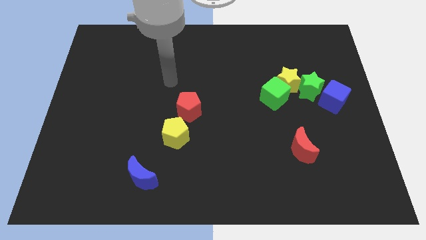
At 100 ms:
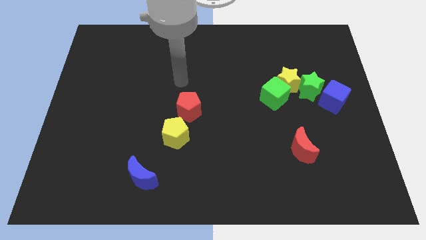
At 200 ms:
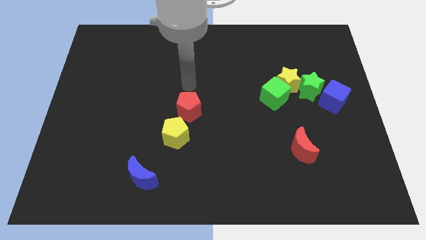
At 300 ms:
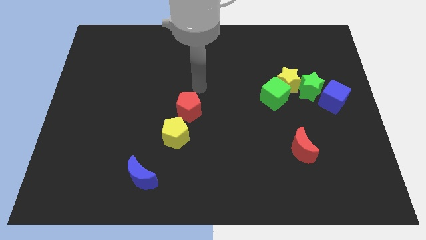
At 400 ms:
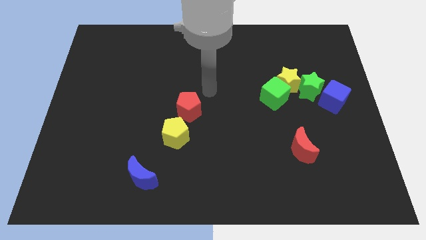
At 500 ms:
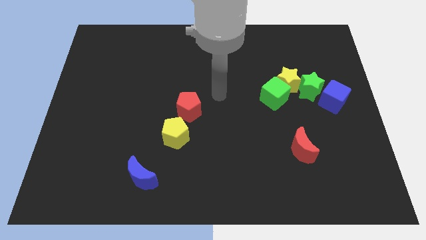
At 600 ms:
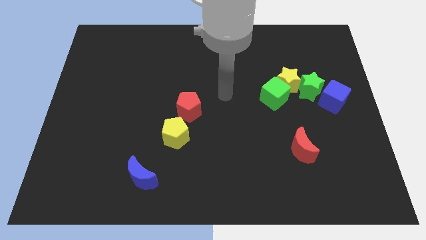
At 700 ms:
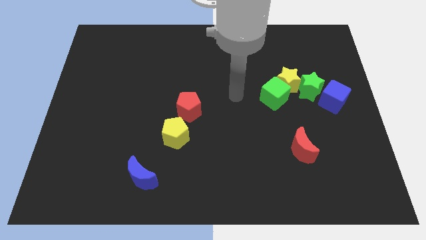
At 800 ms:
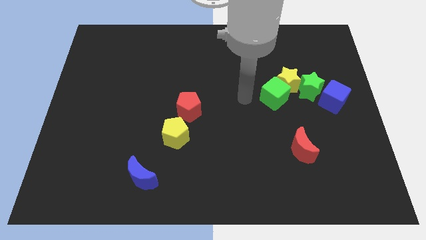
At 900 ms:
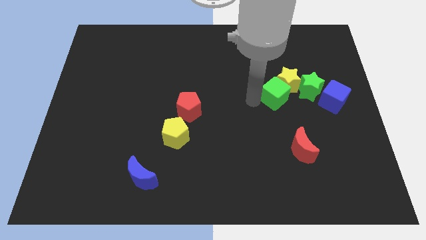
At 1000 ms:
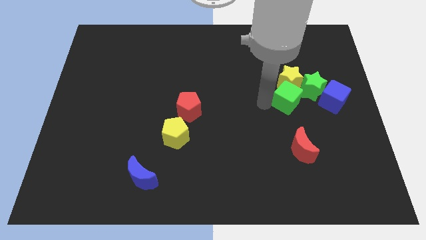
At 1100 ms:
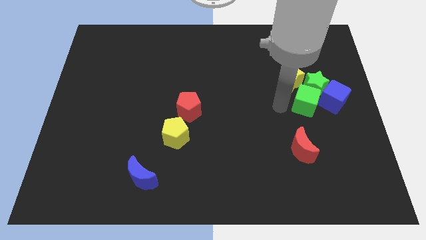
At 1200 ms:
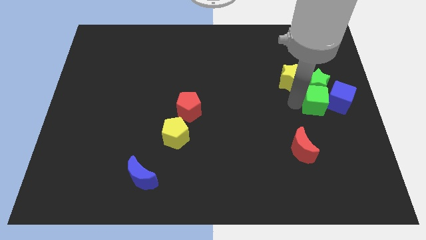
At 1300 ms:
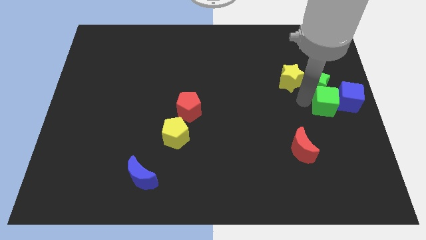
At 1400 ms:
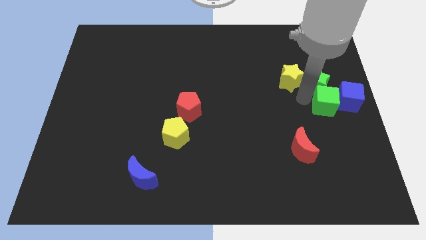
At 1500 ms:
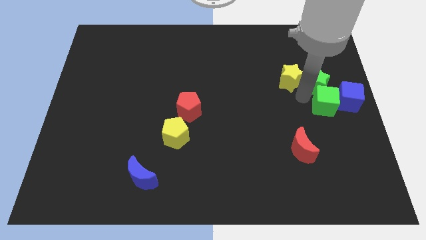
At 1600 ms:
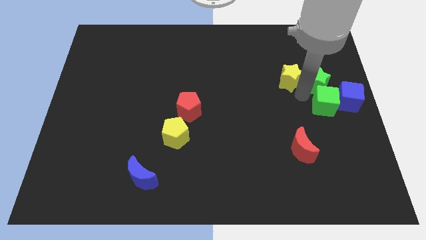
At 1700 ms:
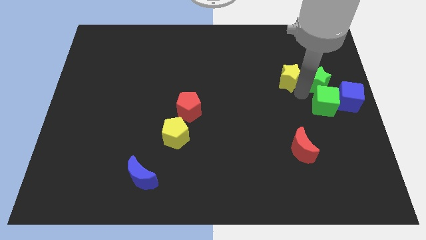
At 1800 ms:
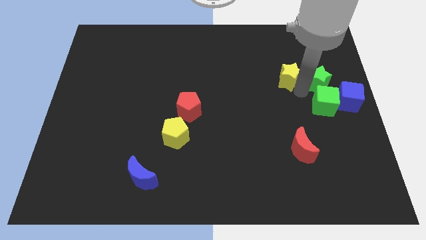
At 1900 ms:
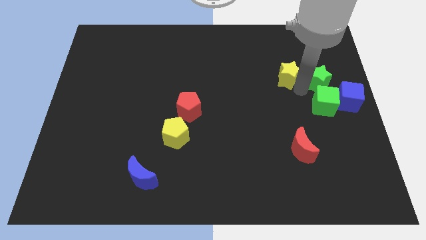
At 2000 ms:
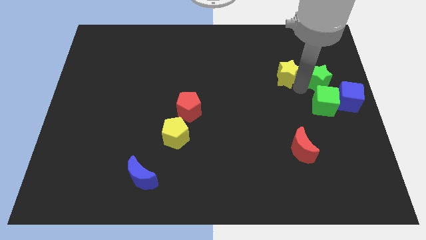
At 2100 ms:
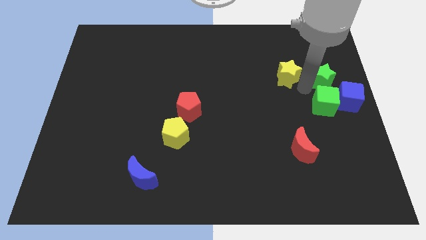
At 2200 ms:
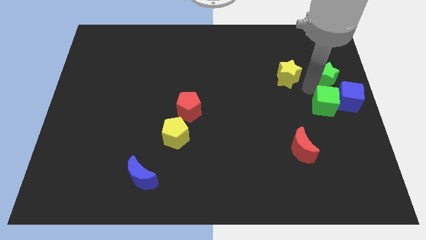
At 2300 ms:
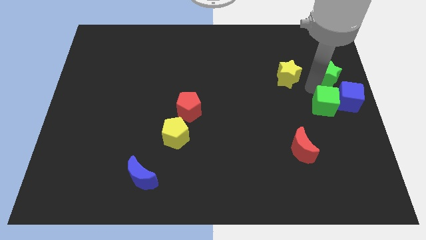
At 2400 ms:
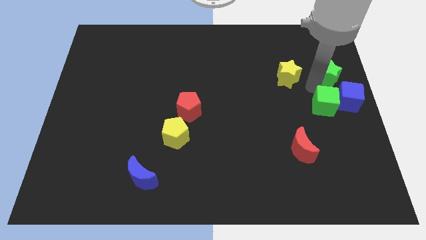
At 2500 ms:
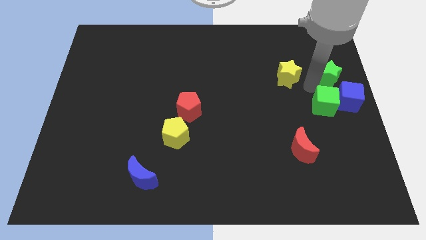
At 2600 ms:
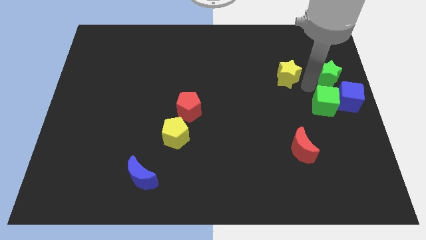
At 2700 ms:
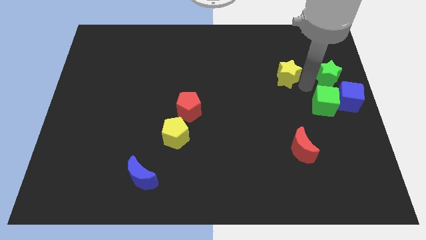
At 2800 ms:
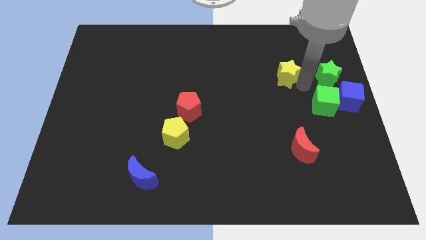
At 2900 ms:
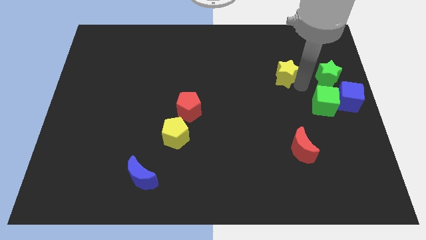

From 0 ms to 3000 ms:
move the yellow star away from the green cube and green star

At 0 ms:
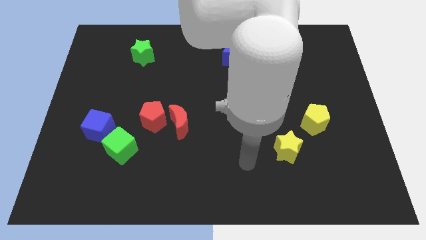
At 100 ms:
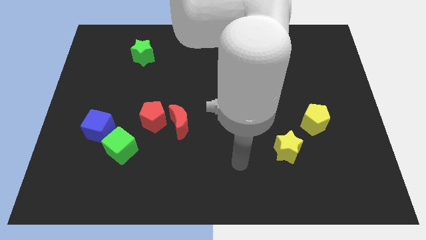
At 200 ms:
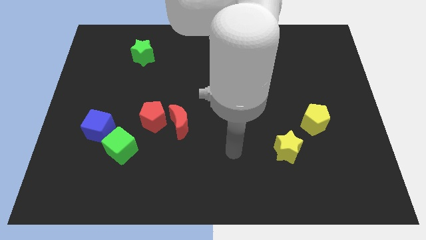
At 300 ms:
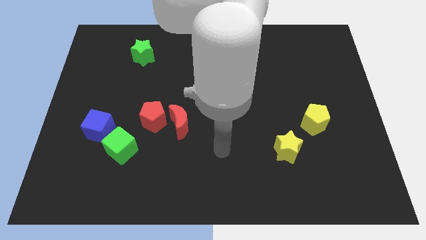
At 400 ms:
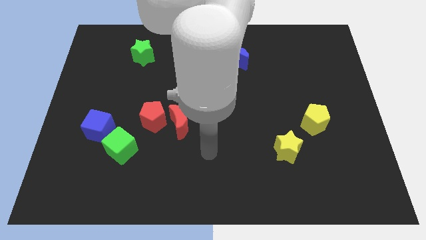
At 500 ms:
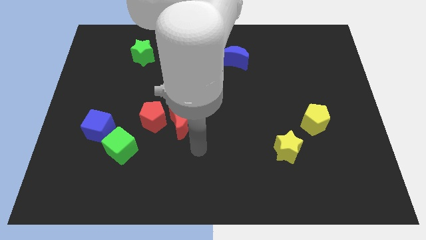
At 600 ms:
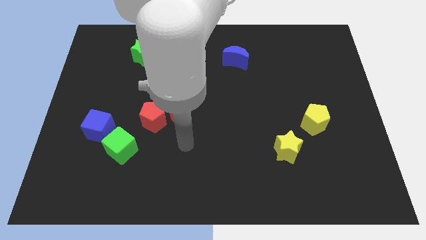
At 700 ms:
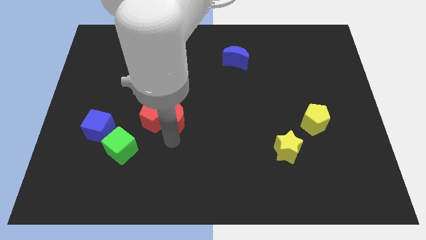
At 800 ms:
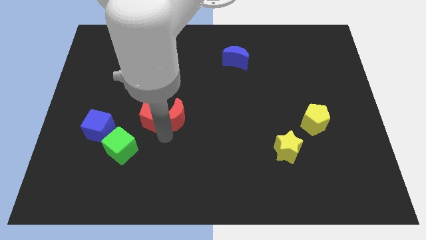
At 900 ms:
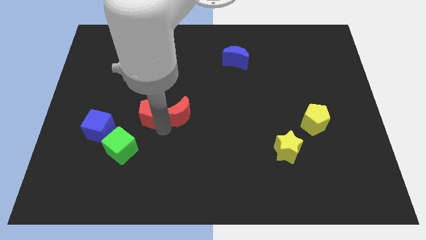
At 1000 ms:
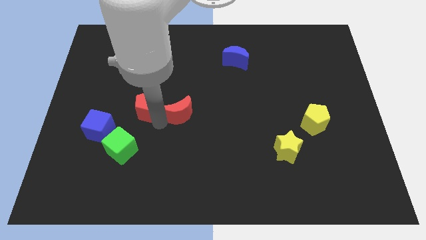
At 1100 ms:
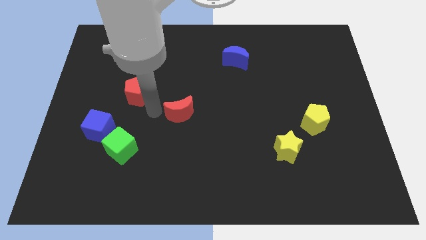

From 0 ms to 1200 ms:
move the red moon away from the red pentagon

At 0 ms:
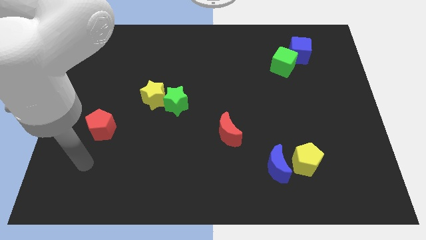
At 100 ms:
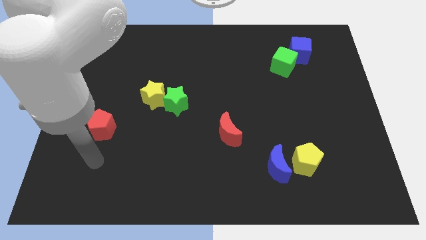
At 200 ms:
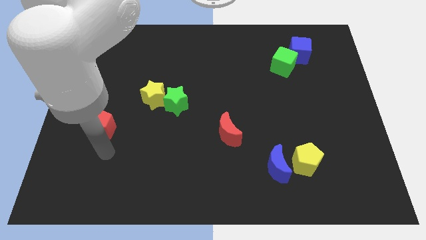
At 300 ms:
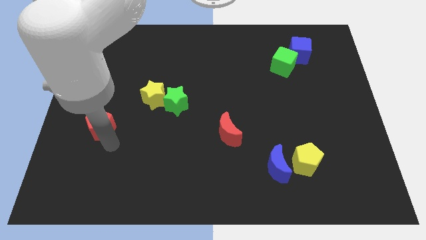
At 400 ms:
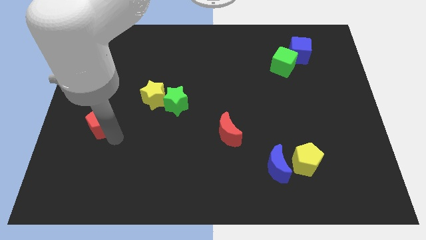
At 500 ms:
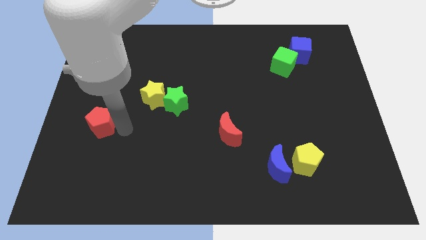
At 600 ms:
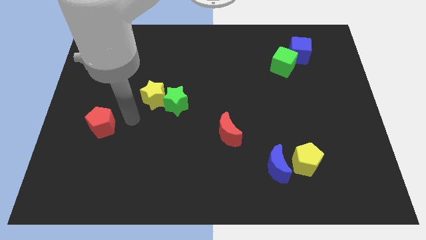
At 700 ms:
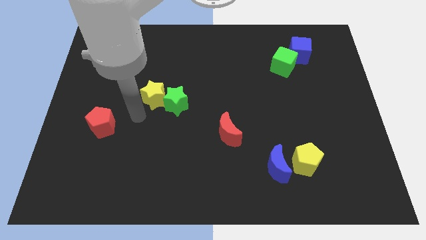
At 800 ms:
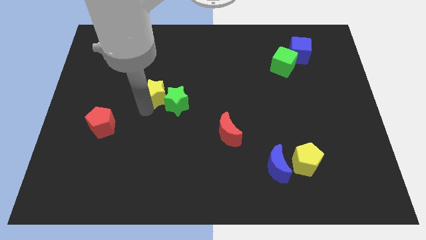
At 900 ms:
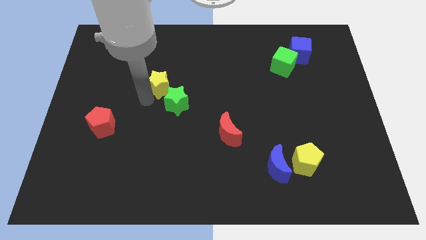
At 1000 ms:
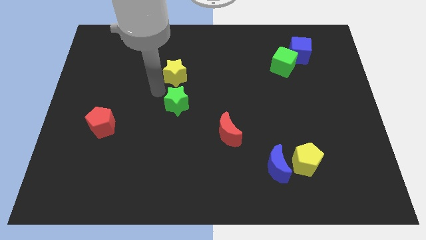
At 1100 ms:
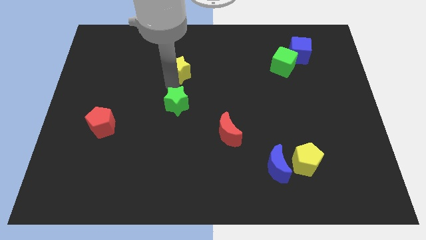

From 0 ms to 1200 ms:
separate the green star from the yellow star

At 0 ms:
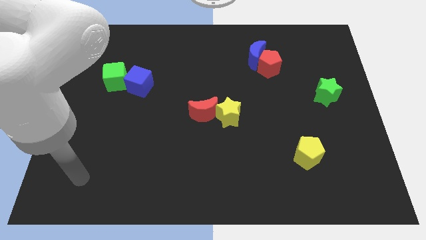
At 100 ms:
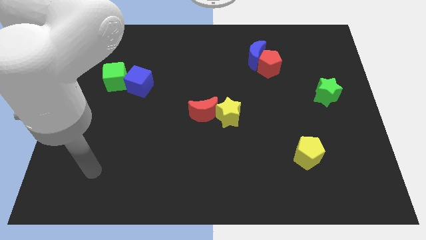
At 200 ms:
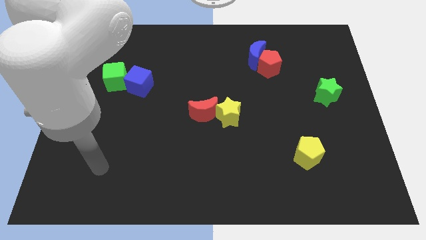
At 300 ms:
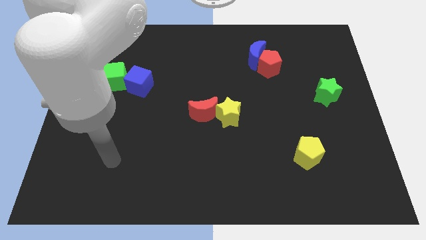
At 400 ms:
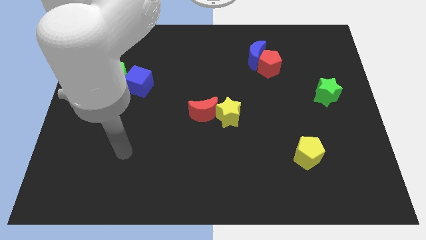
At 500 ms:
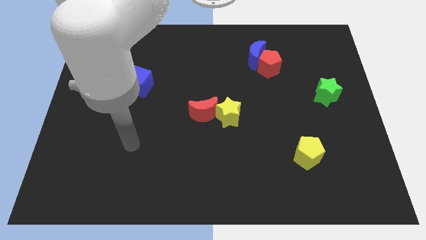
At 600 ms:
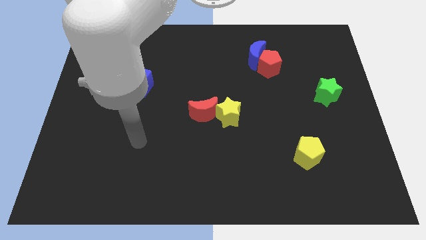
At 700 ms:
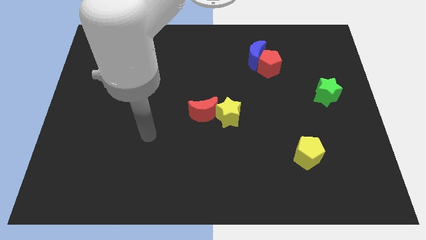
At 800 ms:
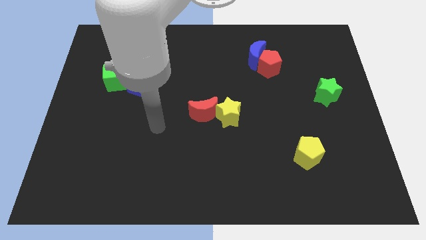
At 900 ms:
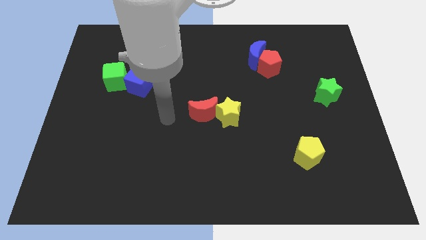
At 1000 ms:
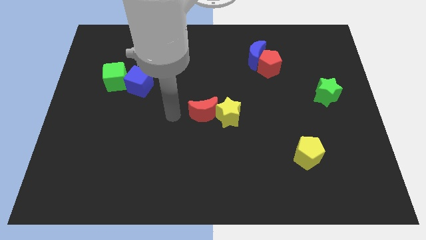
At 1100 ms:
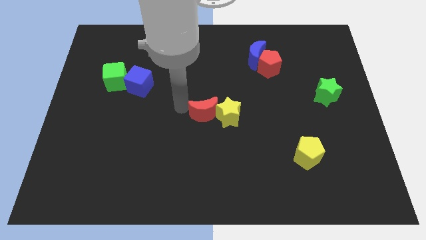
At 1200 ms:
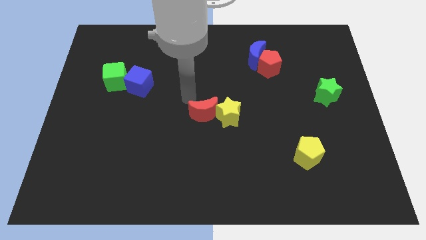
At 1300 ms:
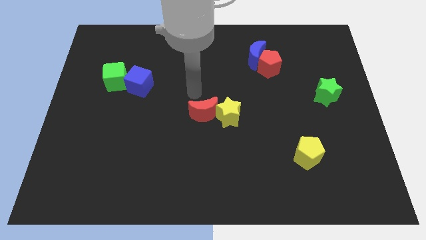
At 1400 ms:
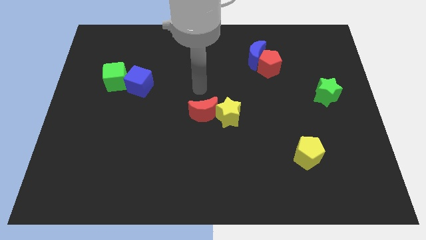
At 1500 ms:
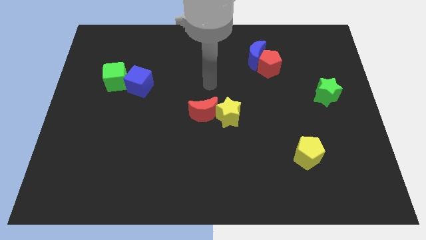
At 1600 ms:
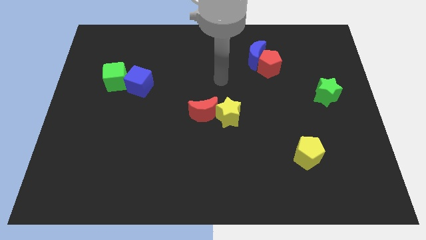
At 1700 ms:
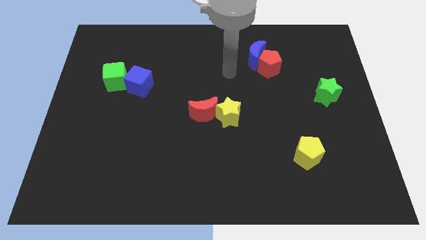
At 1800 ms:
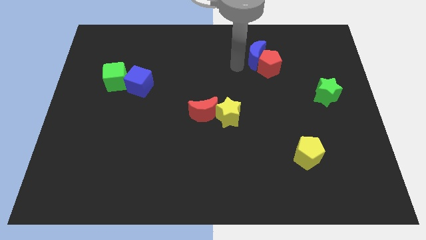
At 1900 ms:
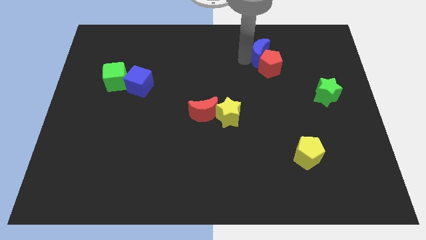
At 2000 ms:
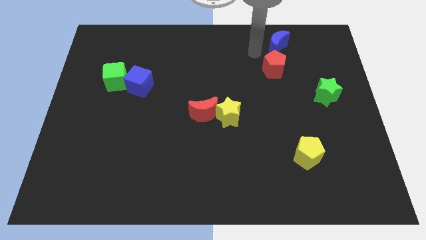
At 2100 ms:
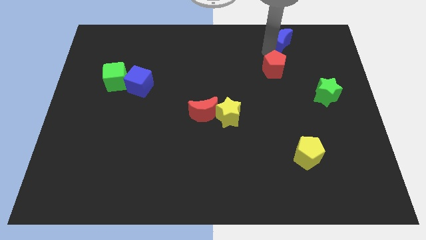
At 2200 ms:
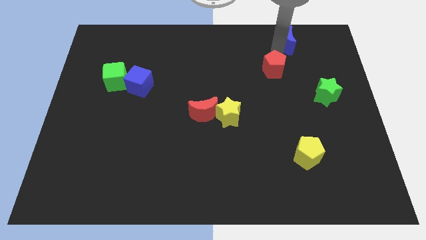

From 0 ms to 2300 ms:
move the red pentagon away from the blue moon

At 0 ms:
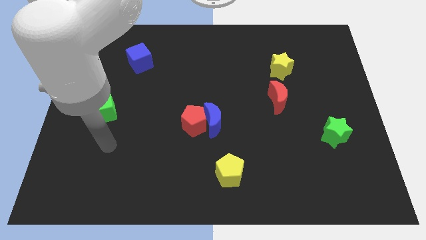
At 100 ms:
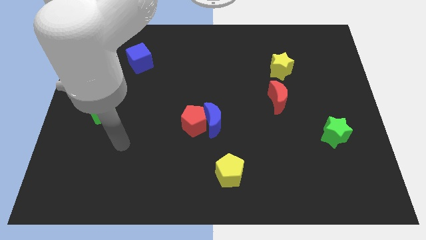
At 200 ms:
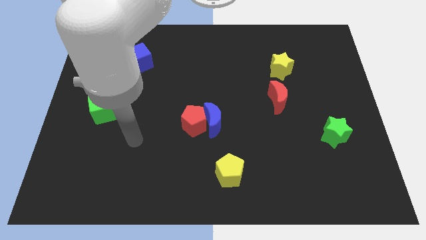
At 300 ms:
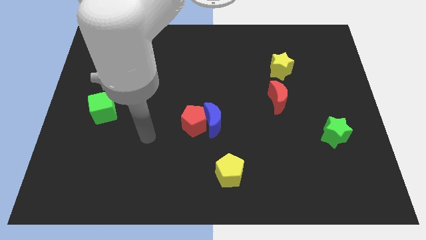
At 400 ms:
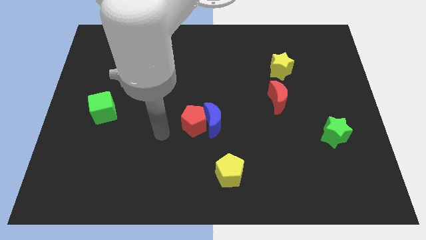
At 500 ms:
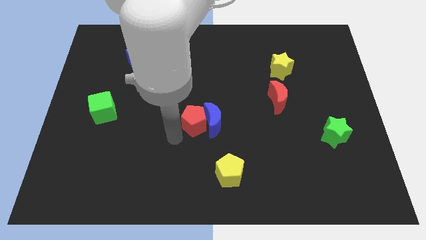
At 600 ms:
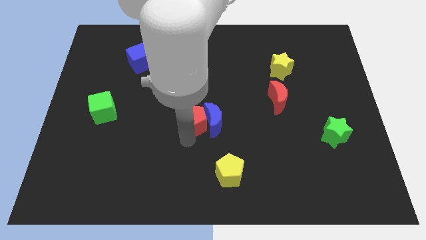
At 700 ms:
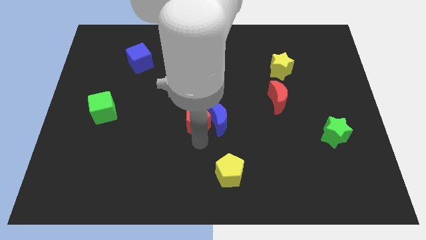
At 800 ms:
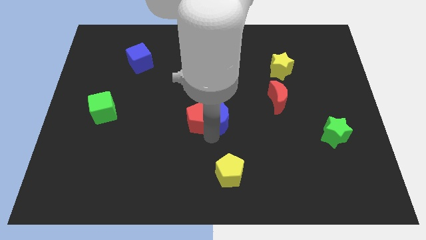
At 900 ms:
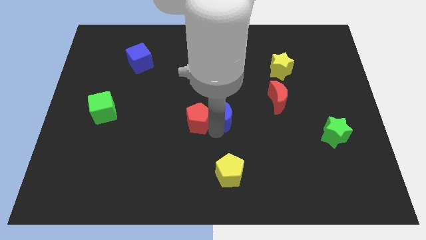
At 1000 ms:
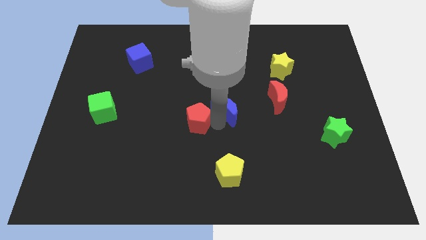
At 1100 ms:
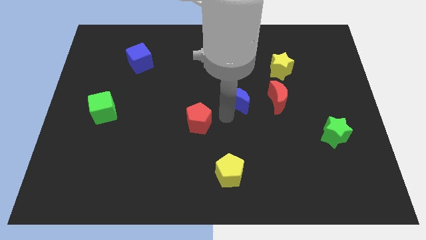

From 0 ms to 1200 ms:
pull the red pentagon apart from the blue moon

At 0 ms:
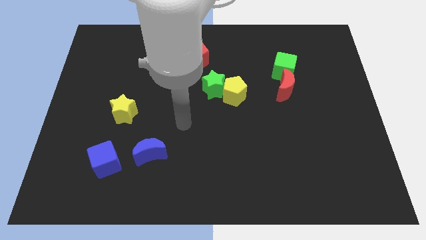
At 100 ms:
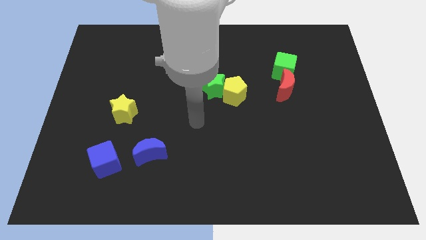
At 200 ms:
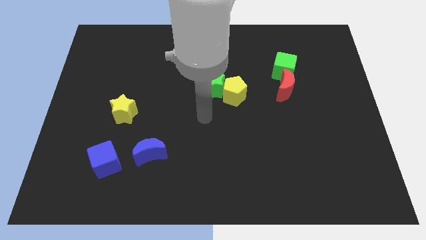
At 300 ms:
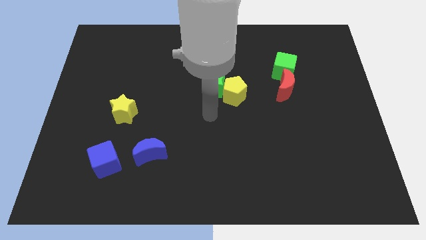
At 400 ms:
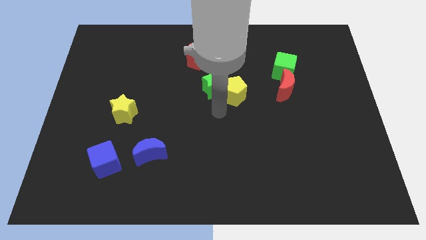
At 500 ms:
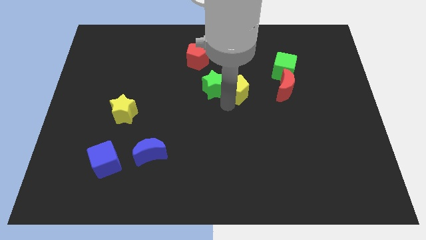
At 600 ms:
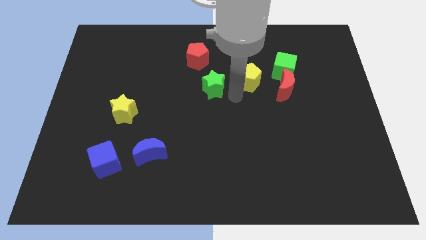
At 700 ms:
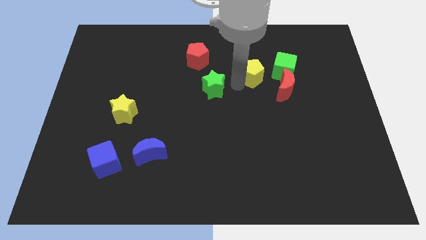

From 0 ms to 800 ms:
move the green star away from the yellow pentagon
